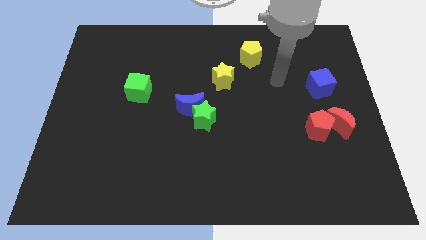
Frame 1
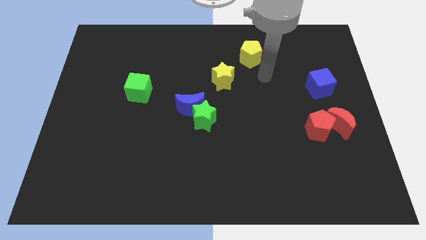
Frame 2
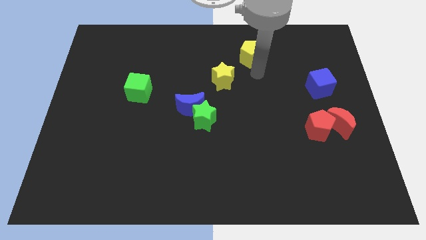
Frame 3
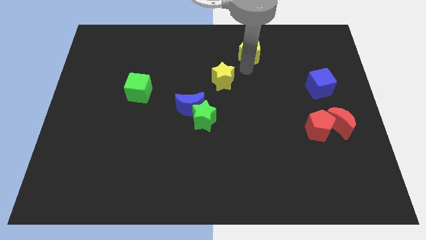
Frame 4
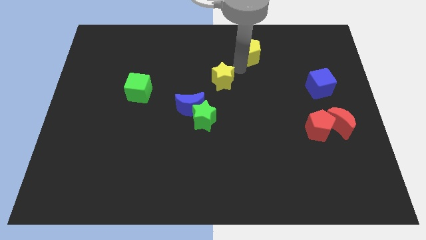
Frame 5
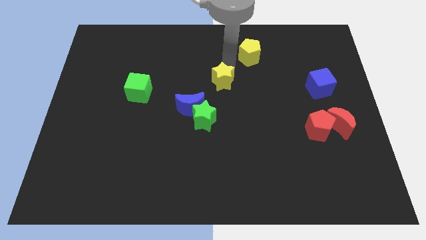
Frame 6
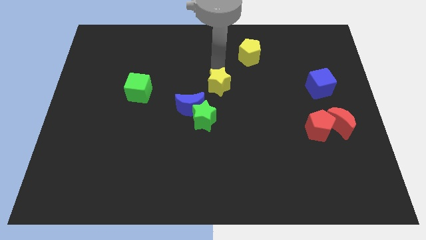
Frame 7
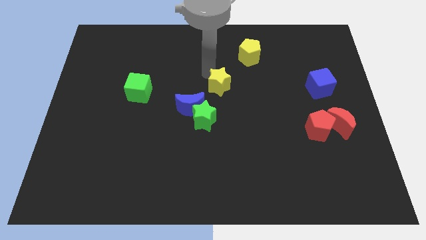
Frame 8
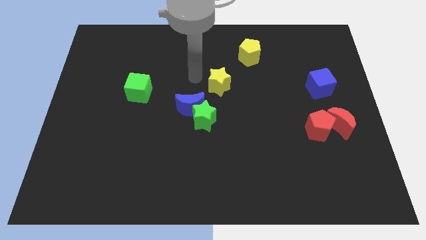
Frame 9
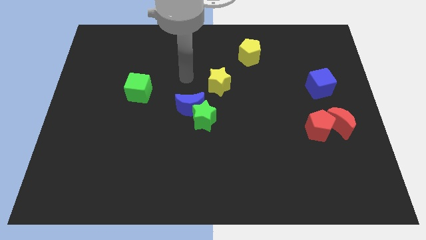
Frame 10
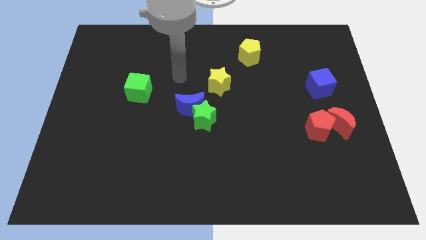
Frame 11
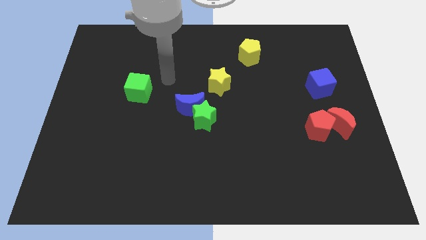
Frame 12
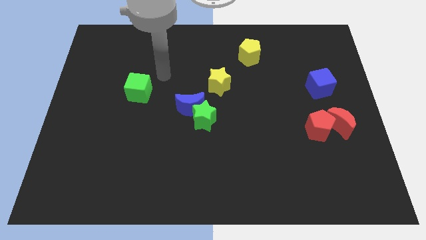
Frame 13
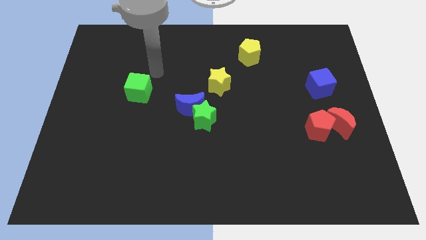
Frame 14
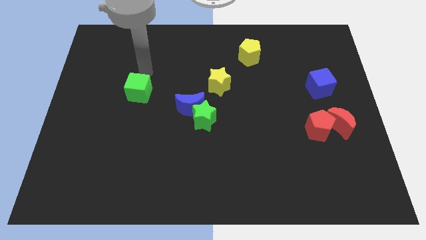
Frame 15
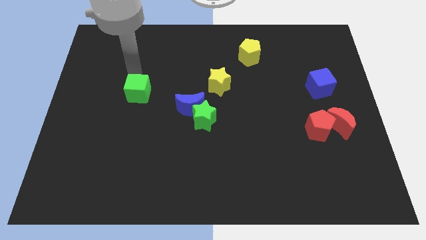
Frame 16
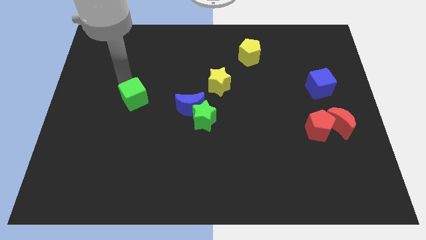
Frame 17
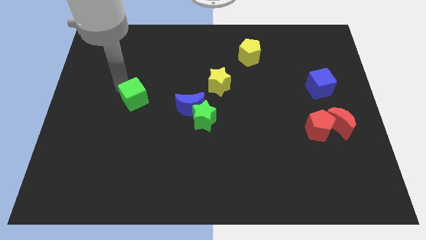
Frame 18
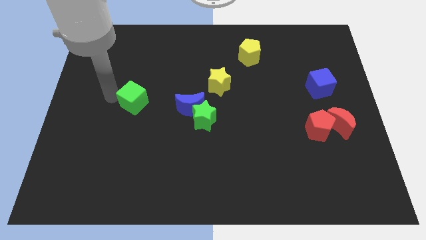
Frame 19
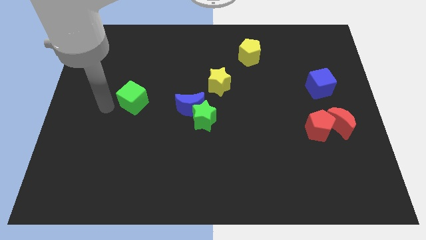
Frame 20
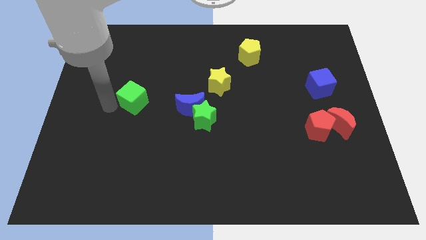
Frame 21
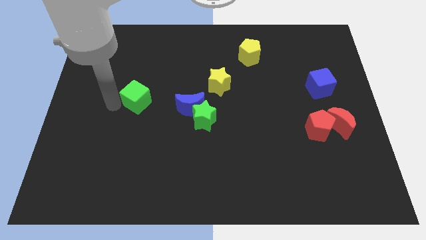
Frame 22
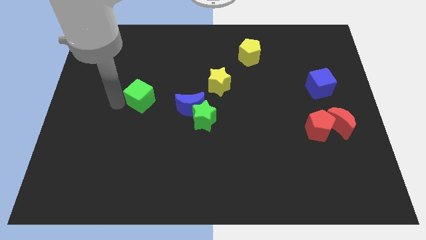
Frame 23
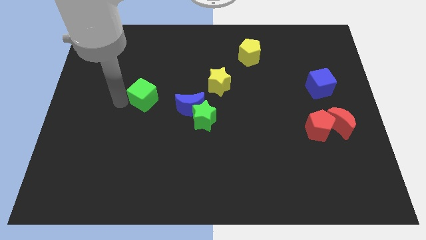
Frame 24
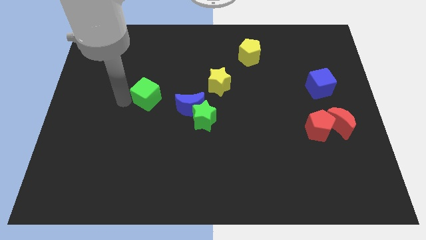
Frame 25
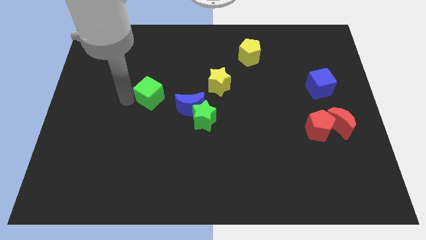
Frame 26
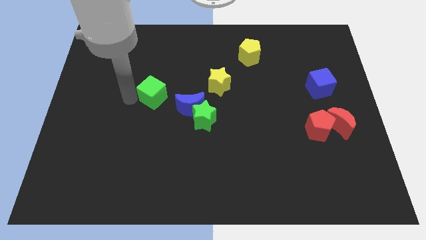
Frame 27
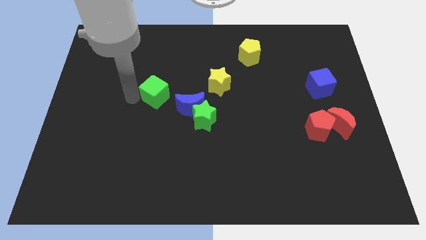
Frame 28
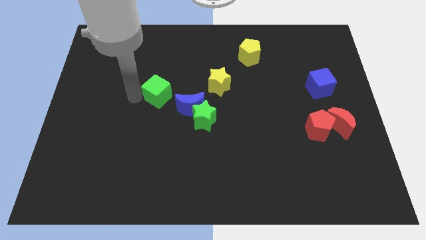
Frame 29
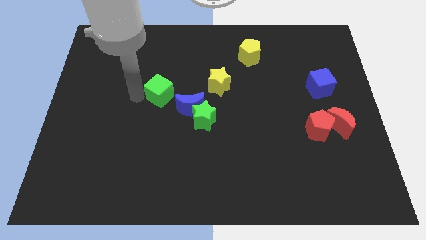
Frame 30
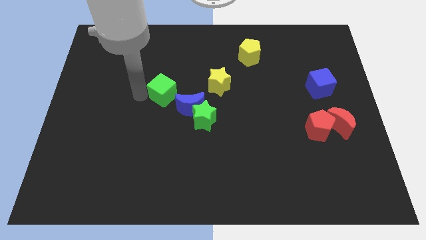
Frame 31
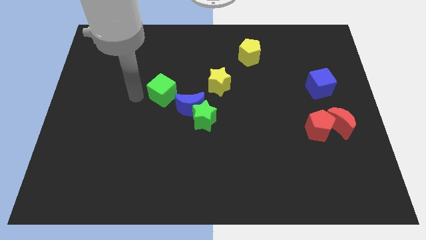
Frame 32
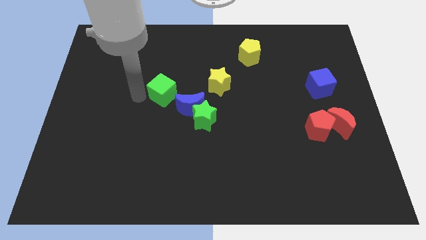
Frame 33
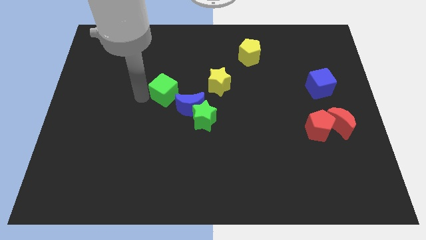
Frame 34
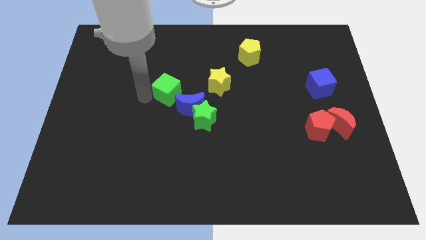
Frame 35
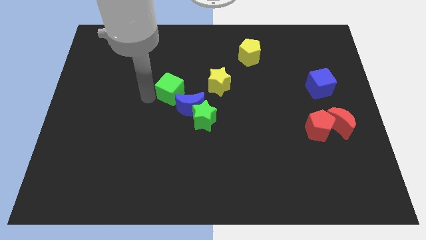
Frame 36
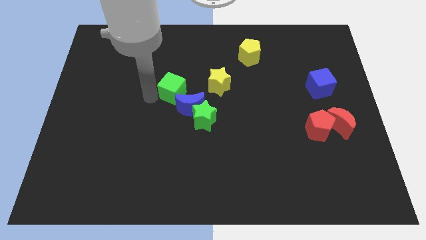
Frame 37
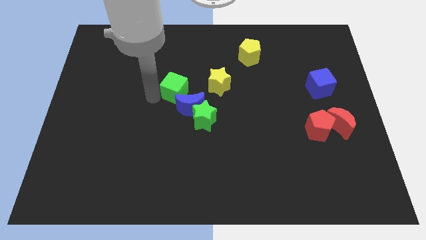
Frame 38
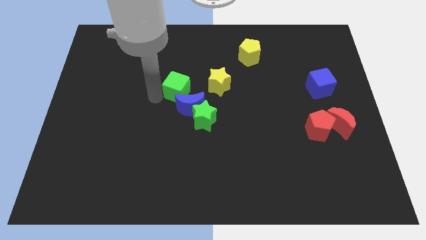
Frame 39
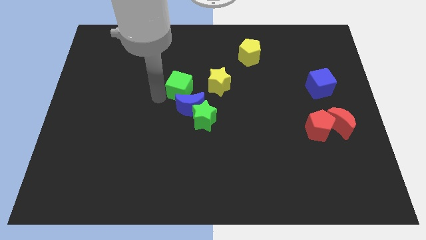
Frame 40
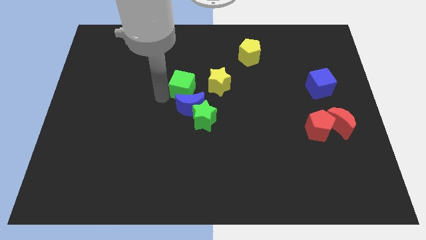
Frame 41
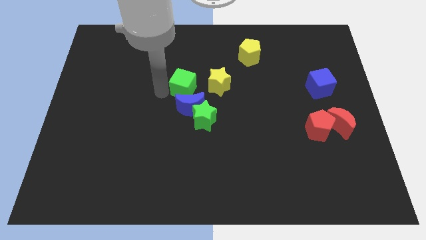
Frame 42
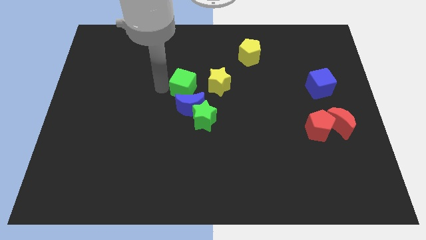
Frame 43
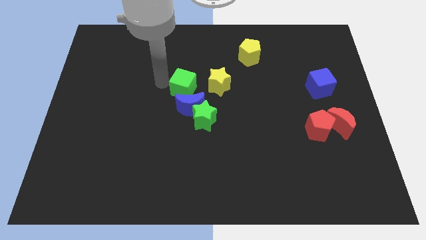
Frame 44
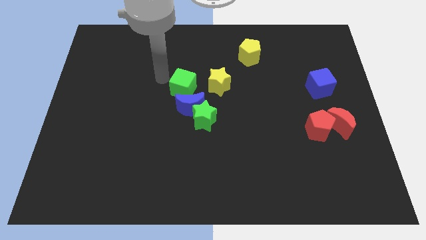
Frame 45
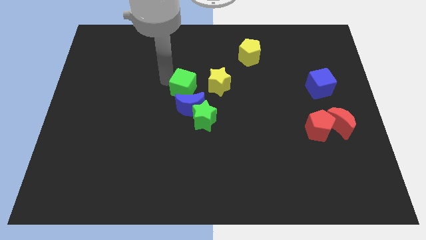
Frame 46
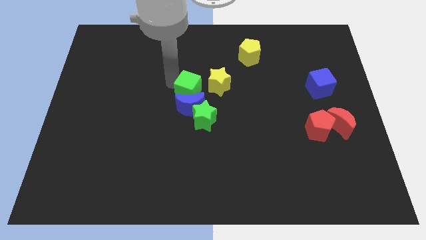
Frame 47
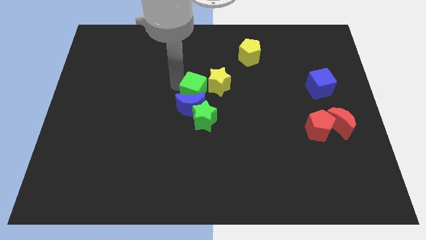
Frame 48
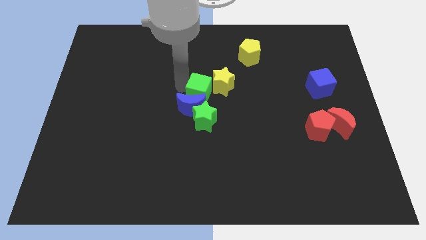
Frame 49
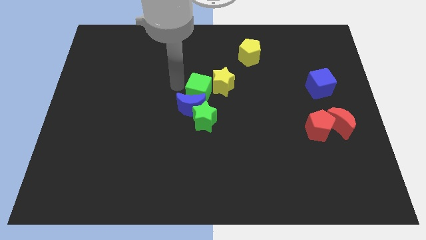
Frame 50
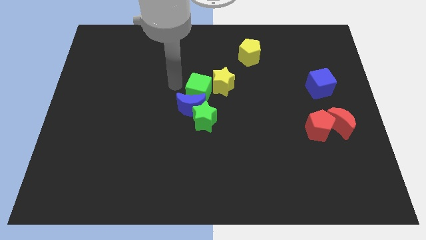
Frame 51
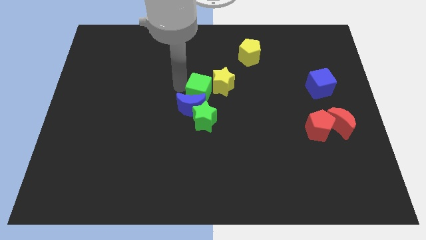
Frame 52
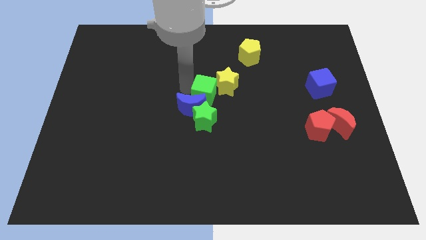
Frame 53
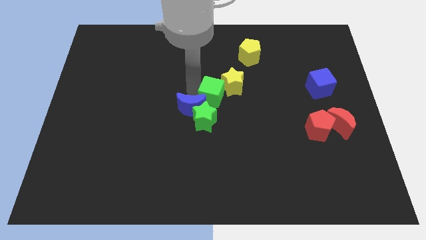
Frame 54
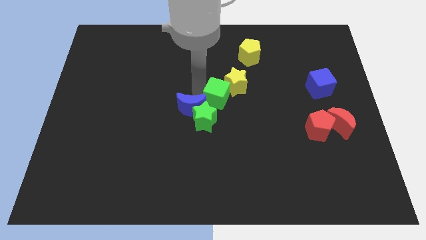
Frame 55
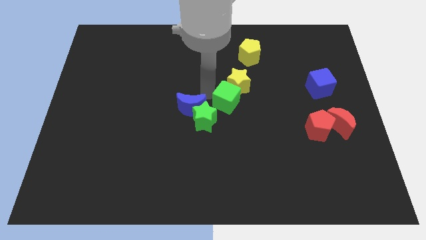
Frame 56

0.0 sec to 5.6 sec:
slide the green cube right

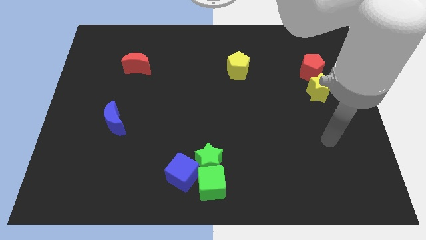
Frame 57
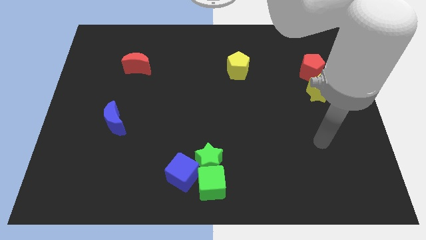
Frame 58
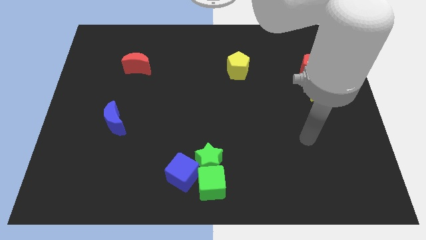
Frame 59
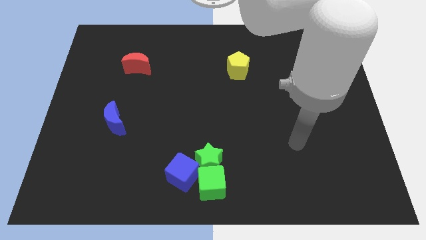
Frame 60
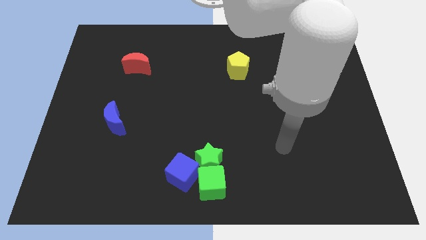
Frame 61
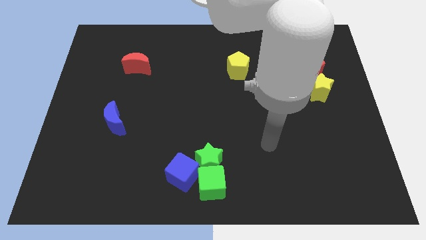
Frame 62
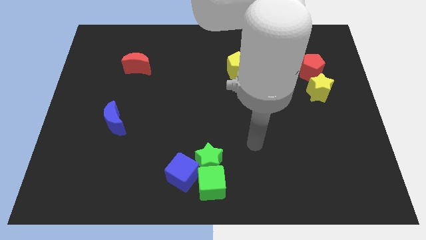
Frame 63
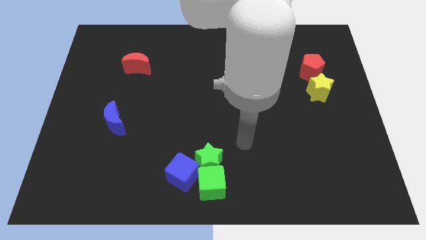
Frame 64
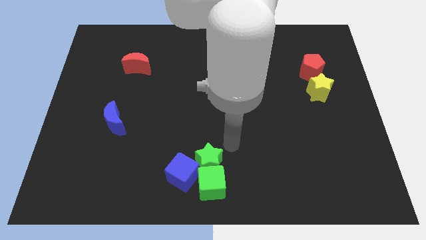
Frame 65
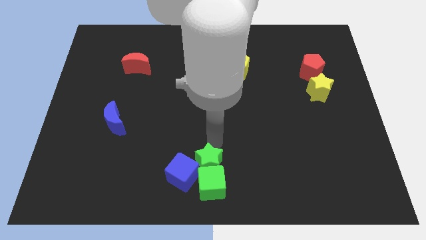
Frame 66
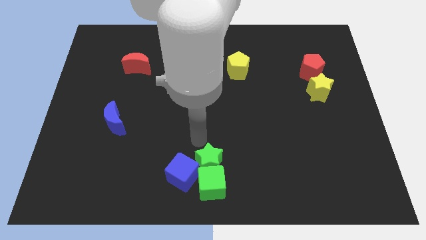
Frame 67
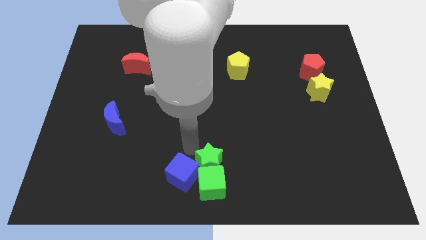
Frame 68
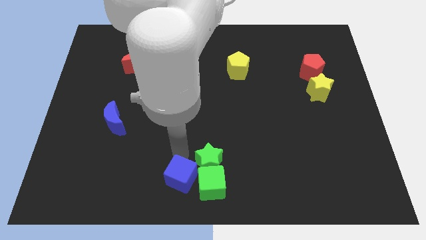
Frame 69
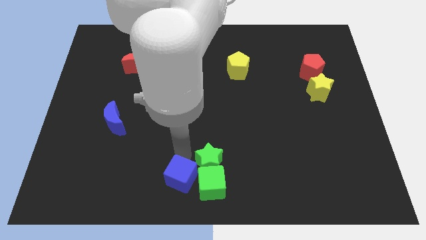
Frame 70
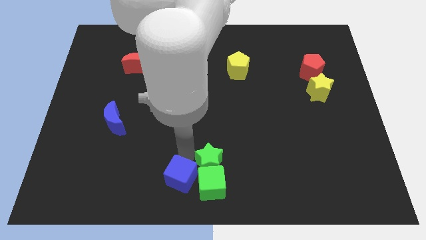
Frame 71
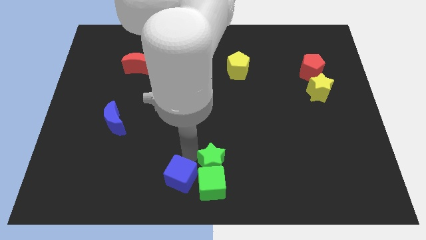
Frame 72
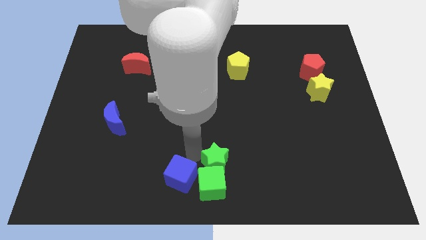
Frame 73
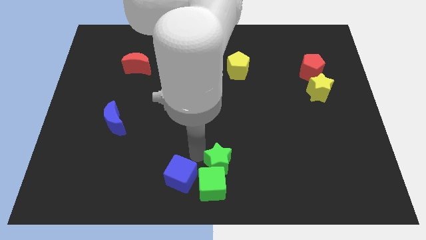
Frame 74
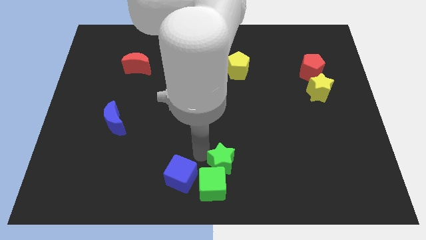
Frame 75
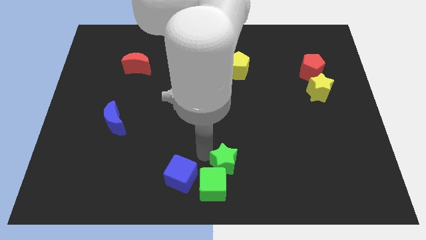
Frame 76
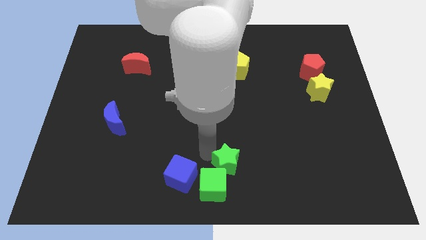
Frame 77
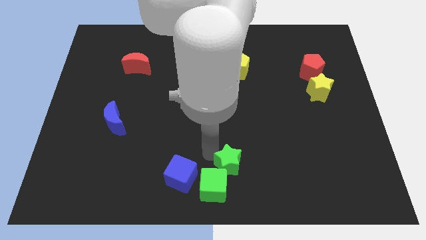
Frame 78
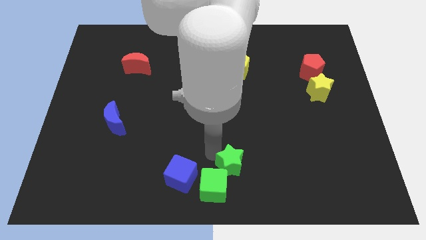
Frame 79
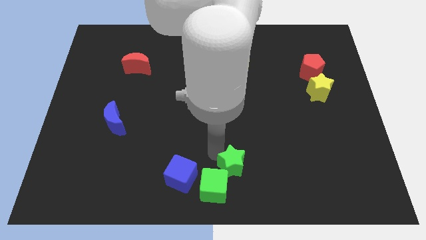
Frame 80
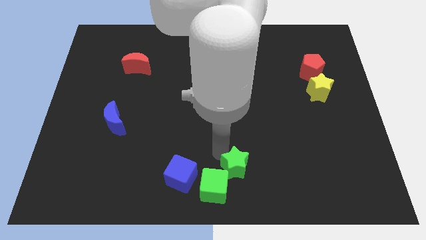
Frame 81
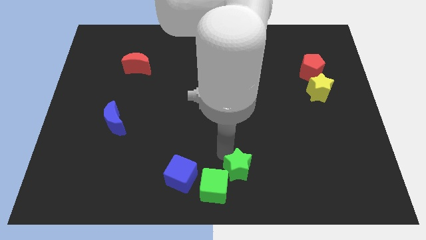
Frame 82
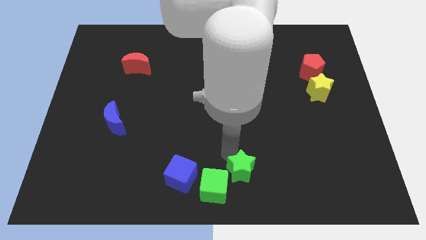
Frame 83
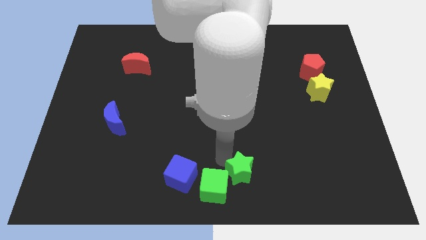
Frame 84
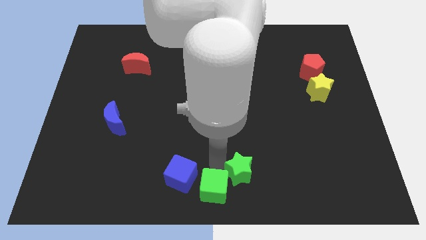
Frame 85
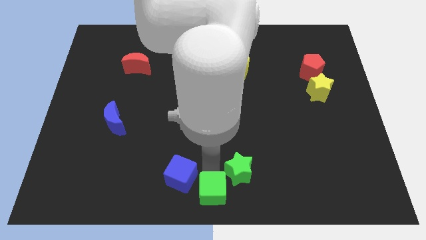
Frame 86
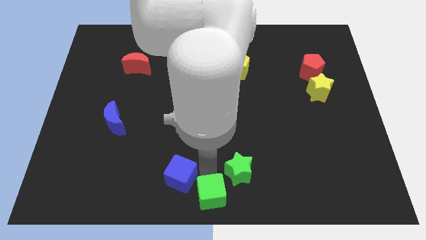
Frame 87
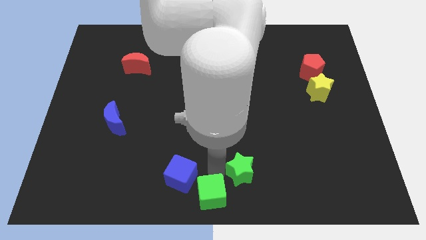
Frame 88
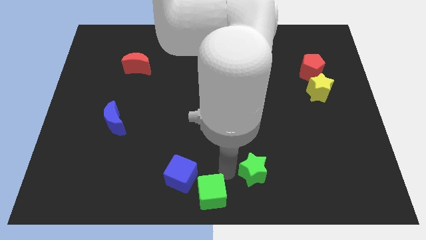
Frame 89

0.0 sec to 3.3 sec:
slide the green star right a little bit
